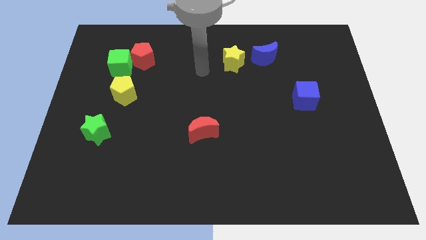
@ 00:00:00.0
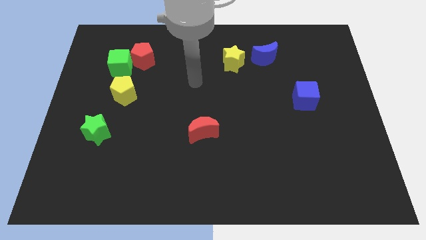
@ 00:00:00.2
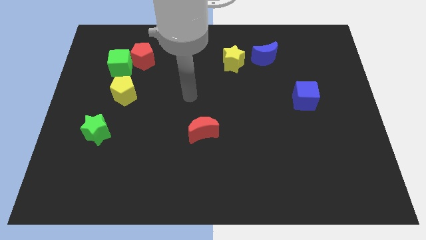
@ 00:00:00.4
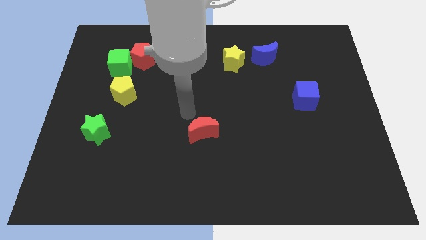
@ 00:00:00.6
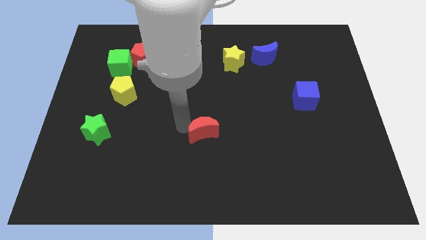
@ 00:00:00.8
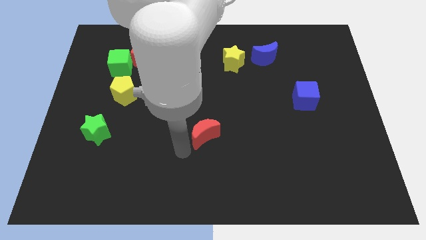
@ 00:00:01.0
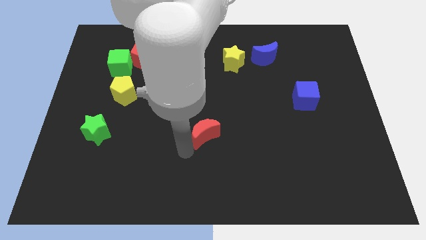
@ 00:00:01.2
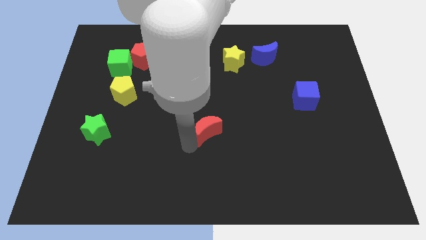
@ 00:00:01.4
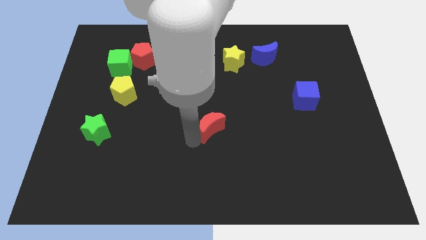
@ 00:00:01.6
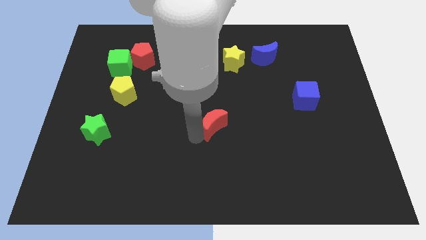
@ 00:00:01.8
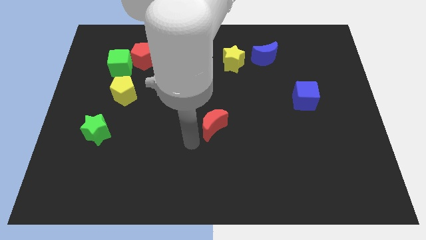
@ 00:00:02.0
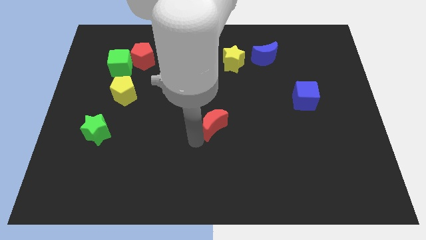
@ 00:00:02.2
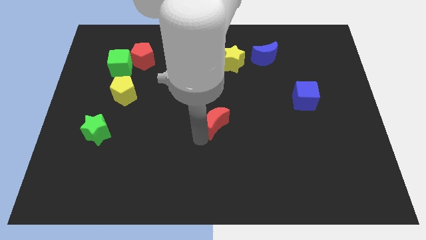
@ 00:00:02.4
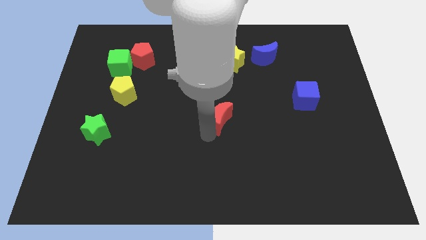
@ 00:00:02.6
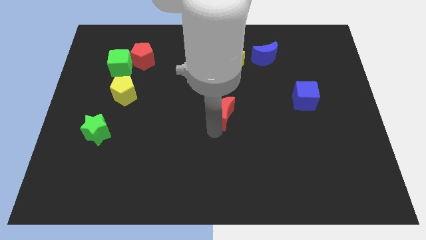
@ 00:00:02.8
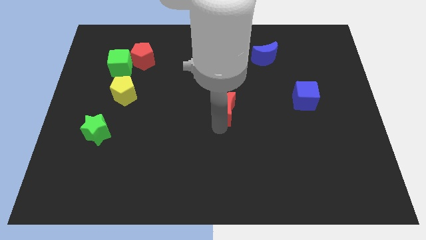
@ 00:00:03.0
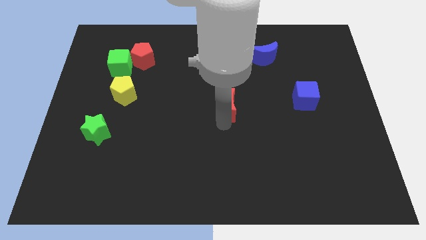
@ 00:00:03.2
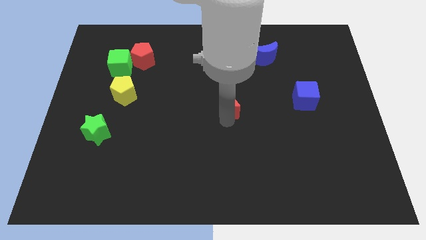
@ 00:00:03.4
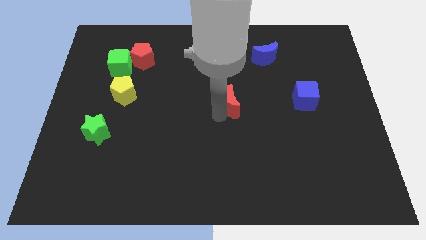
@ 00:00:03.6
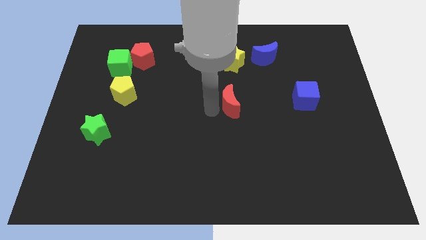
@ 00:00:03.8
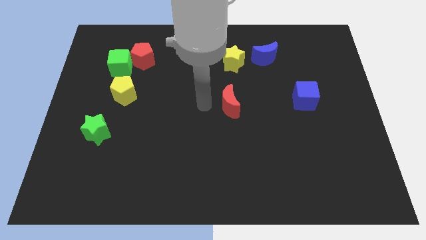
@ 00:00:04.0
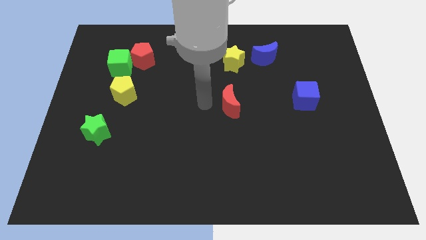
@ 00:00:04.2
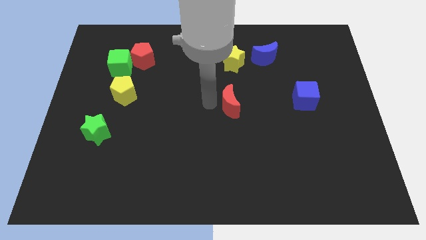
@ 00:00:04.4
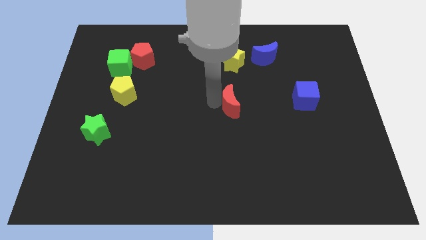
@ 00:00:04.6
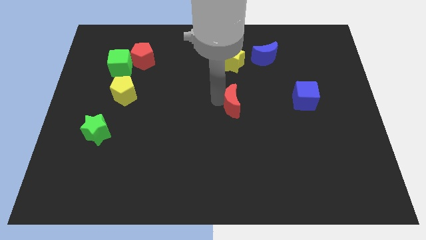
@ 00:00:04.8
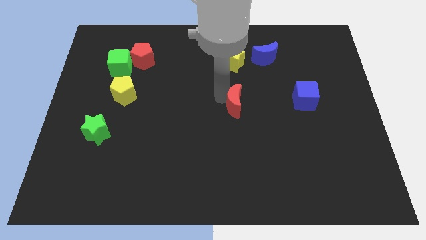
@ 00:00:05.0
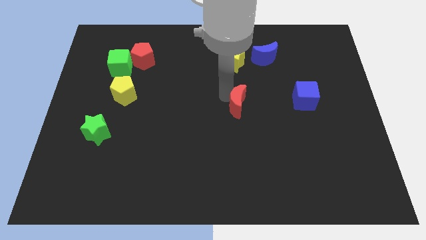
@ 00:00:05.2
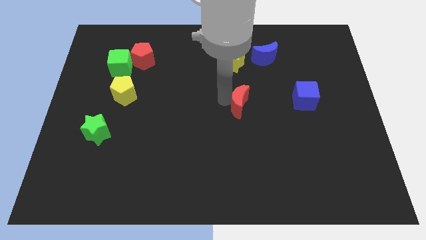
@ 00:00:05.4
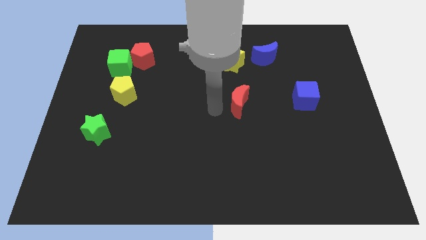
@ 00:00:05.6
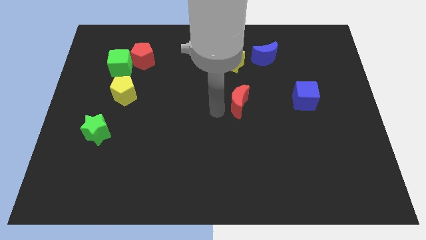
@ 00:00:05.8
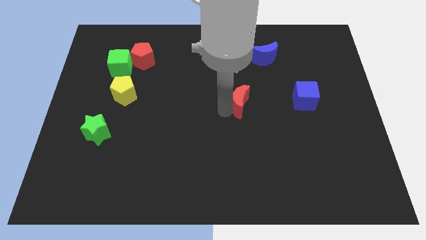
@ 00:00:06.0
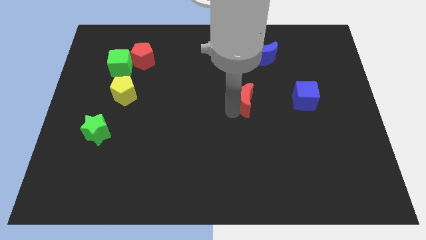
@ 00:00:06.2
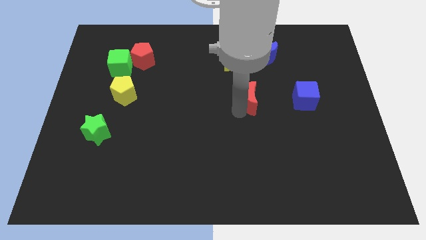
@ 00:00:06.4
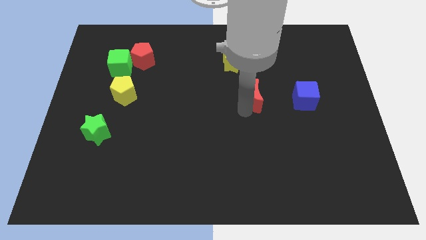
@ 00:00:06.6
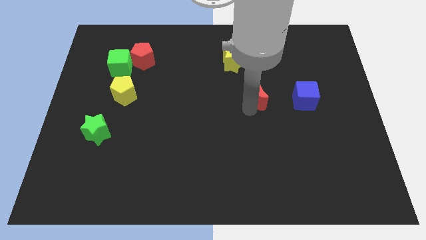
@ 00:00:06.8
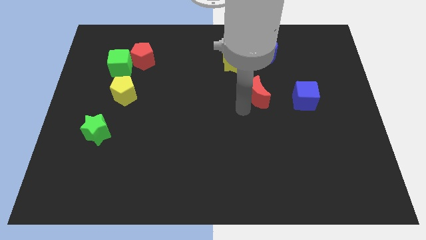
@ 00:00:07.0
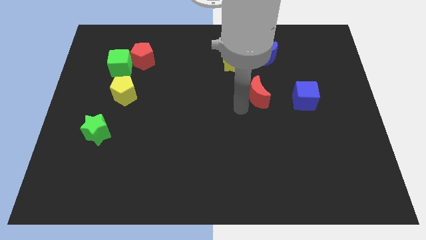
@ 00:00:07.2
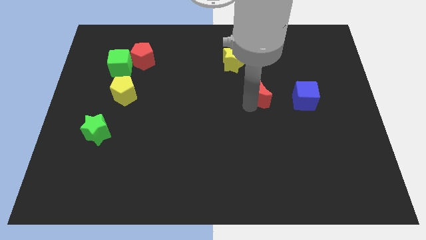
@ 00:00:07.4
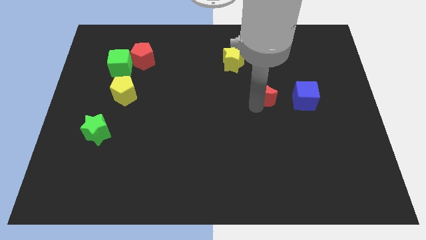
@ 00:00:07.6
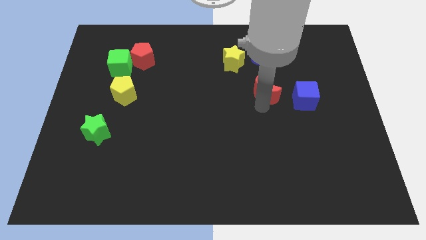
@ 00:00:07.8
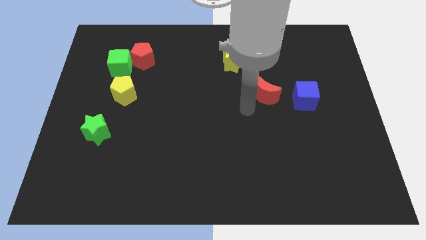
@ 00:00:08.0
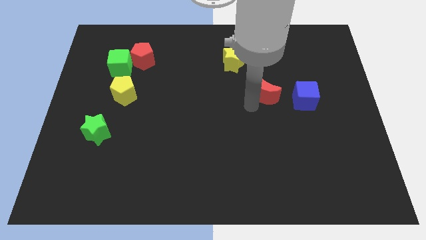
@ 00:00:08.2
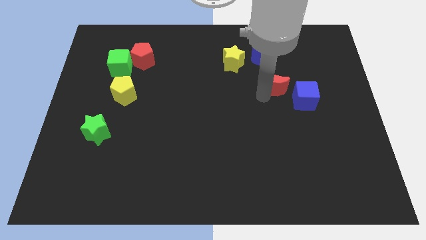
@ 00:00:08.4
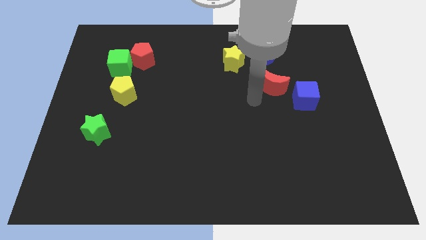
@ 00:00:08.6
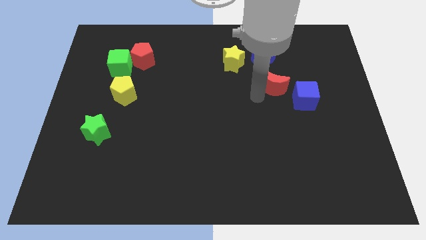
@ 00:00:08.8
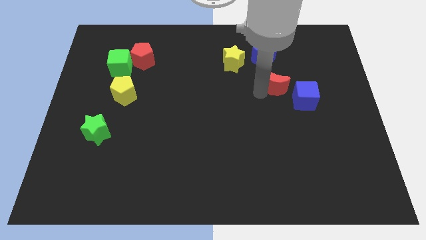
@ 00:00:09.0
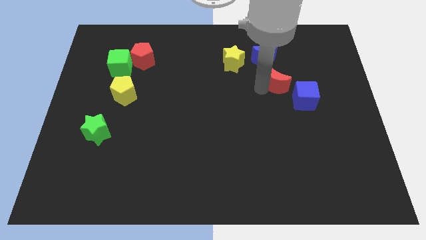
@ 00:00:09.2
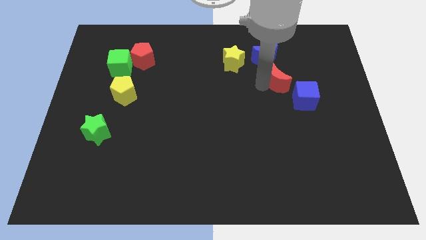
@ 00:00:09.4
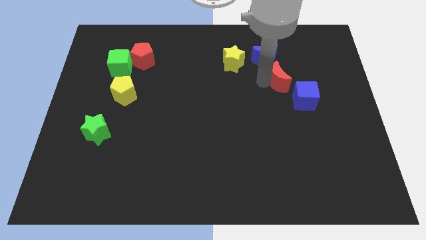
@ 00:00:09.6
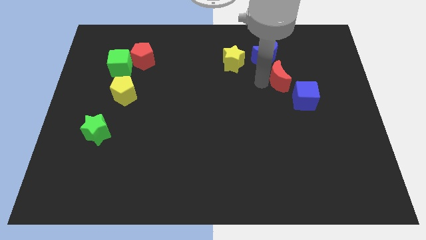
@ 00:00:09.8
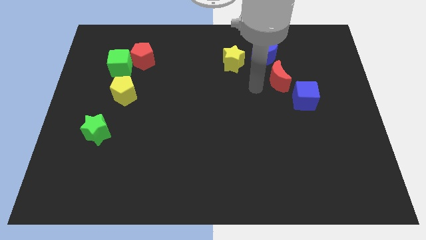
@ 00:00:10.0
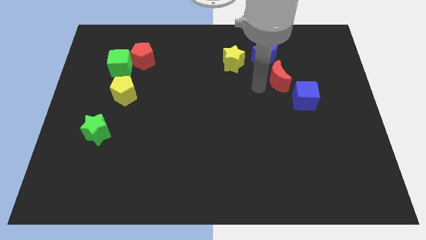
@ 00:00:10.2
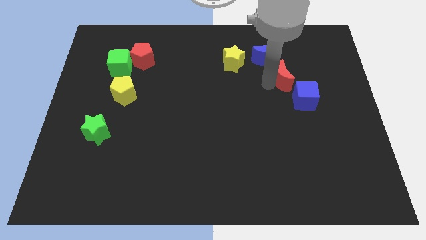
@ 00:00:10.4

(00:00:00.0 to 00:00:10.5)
slide the red moon above the blue cube
